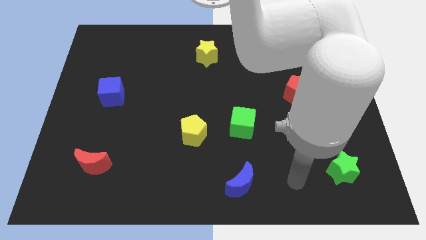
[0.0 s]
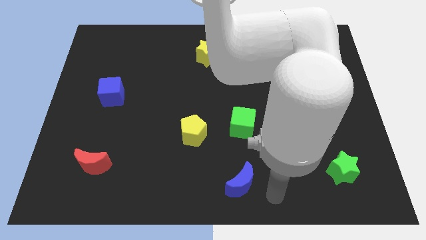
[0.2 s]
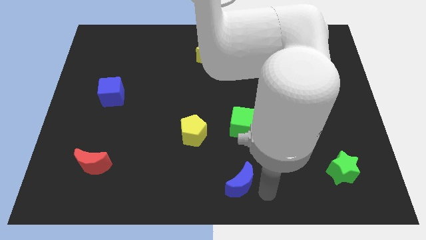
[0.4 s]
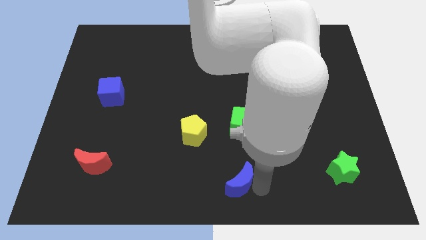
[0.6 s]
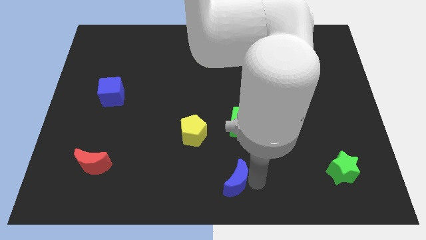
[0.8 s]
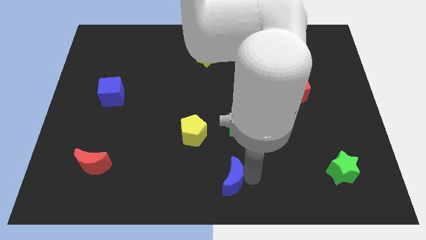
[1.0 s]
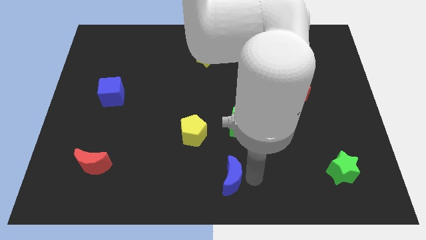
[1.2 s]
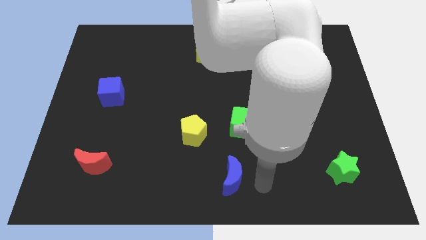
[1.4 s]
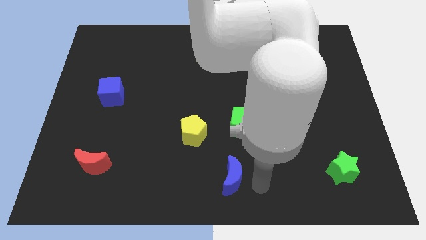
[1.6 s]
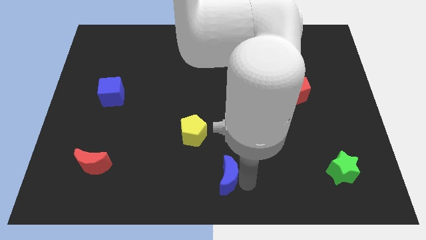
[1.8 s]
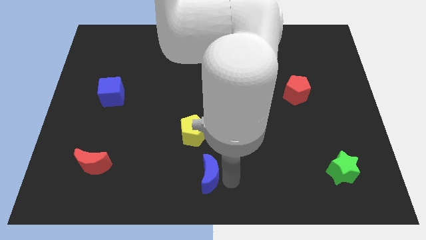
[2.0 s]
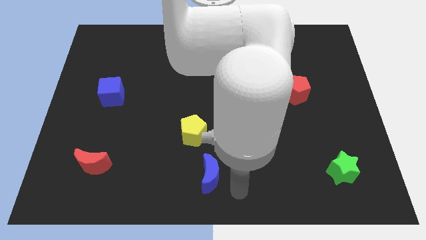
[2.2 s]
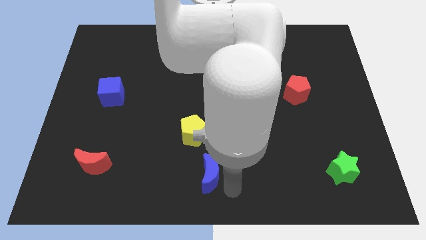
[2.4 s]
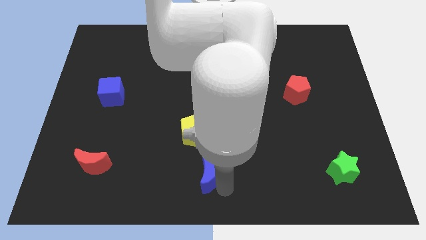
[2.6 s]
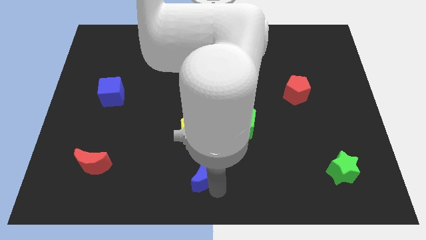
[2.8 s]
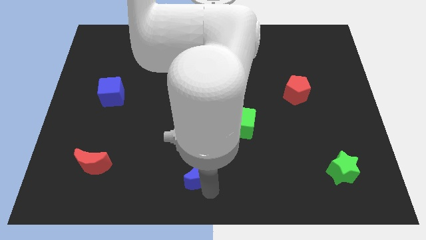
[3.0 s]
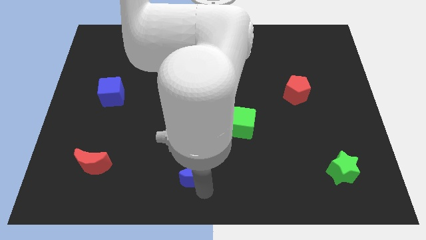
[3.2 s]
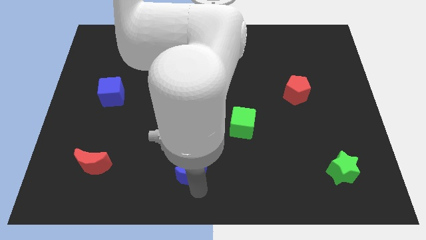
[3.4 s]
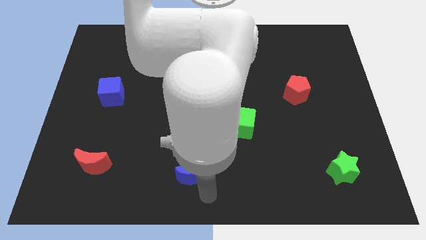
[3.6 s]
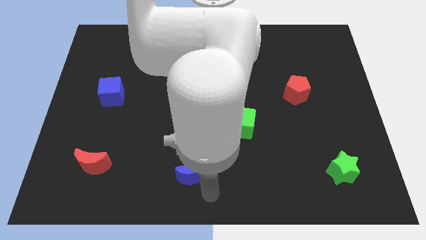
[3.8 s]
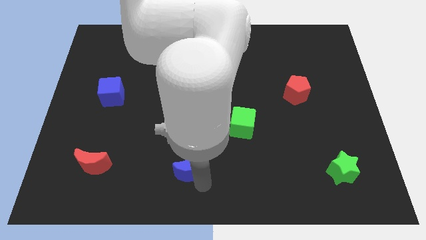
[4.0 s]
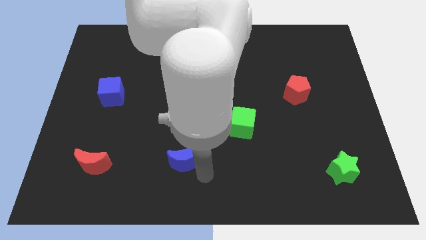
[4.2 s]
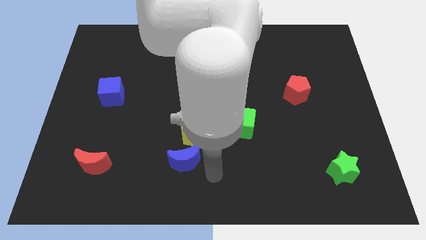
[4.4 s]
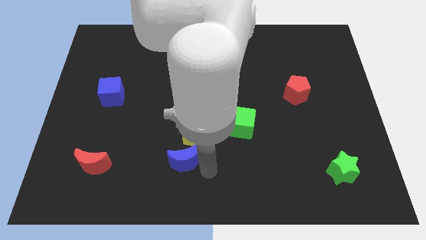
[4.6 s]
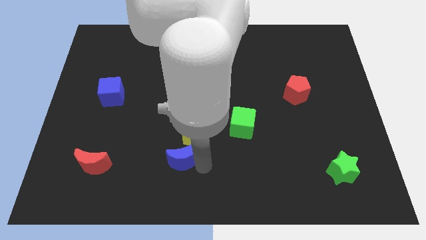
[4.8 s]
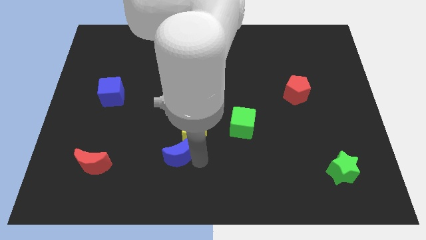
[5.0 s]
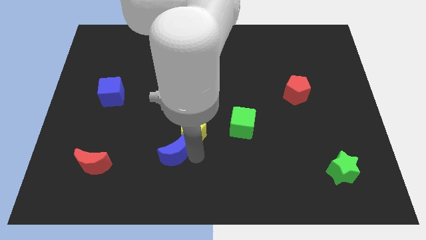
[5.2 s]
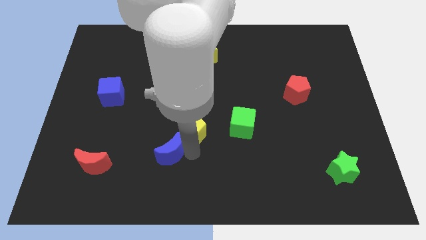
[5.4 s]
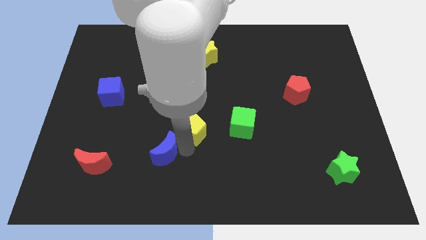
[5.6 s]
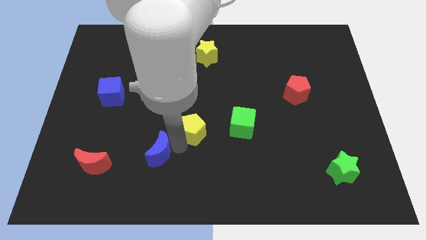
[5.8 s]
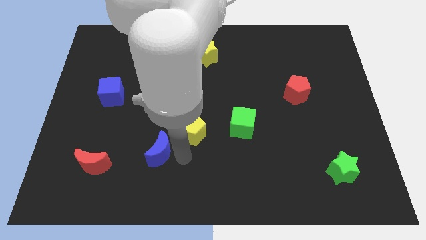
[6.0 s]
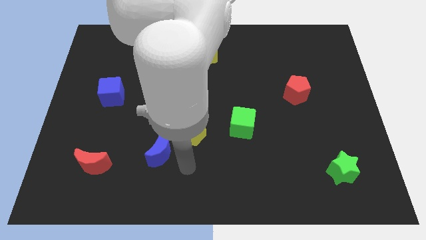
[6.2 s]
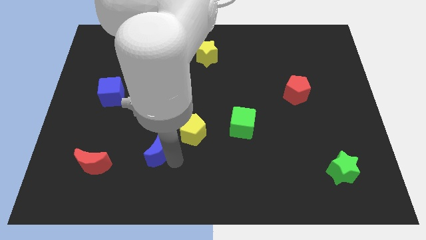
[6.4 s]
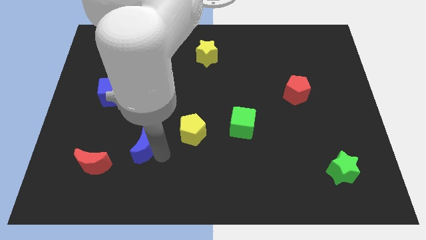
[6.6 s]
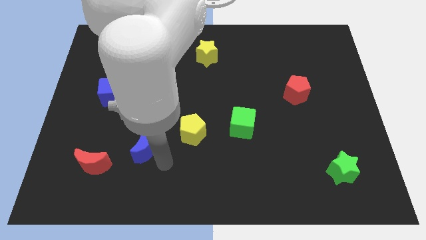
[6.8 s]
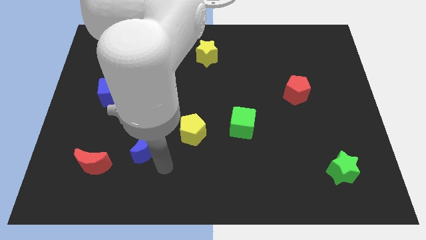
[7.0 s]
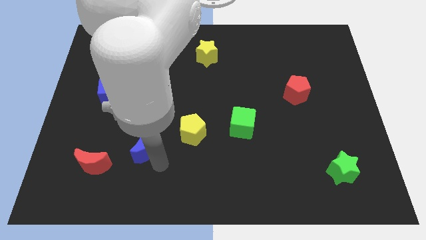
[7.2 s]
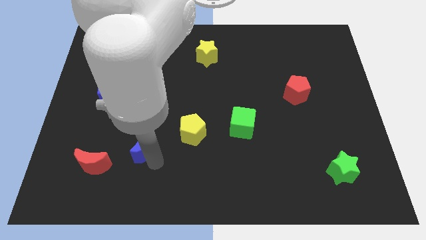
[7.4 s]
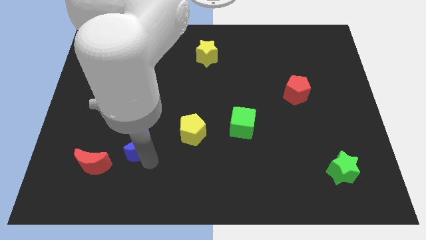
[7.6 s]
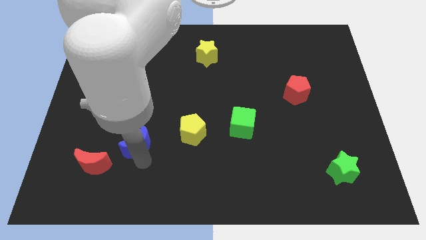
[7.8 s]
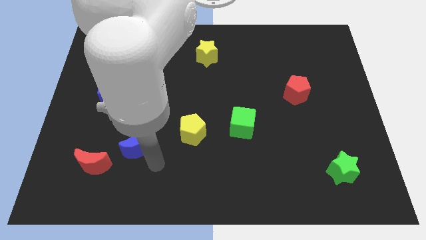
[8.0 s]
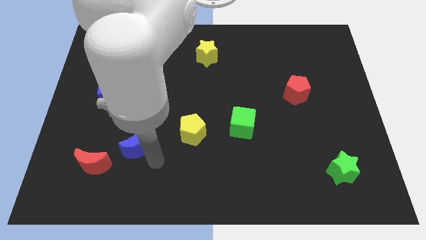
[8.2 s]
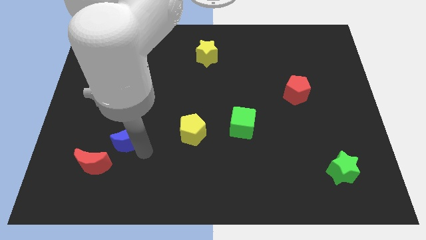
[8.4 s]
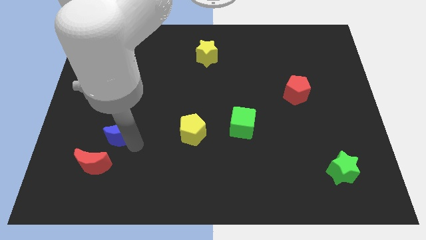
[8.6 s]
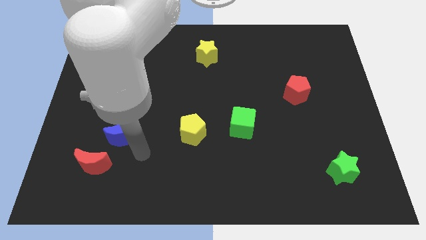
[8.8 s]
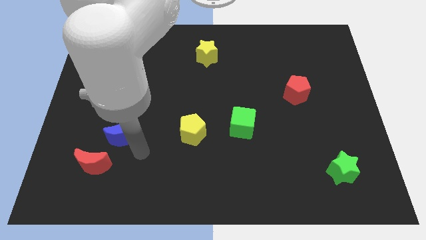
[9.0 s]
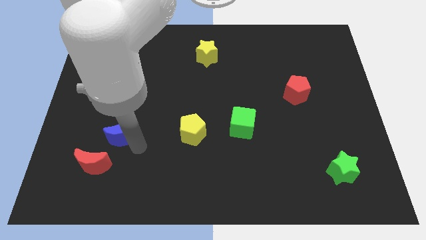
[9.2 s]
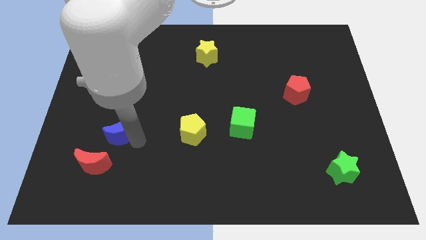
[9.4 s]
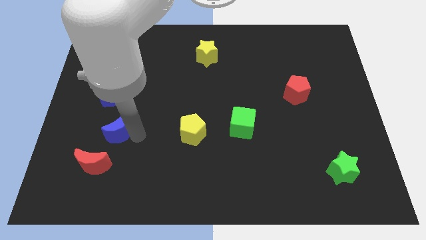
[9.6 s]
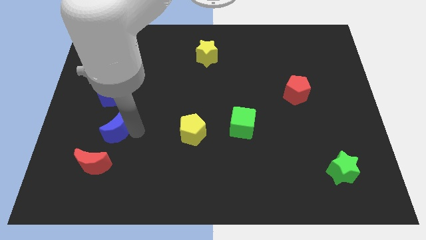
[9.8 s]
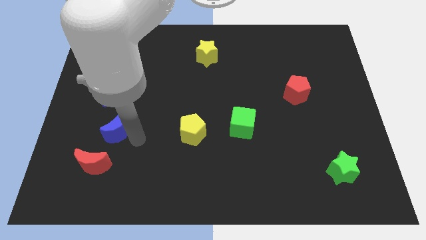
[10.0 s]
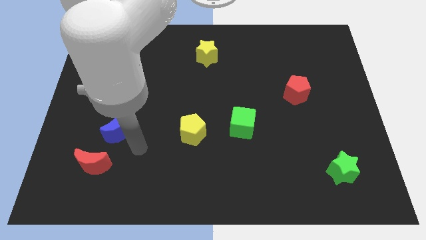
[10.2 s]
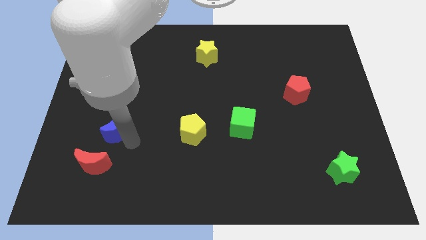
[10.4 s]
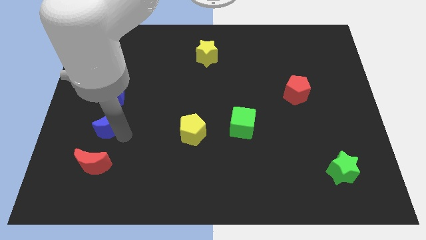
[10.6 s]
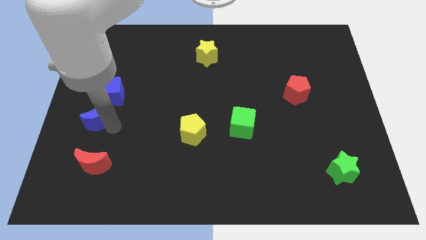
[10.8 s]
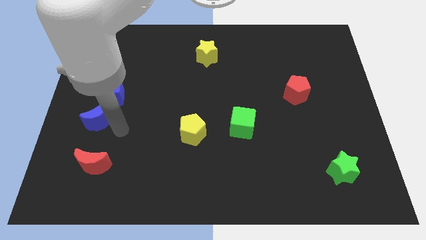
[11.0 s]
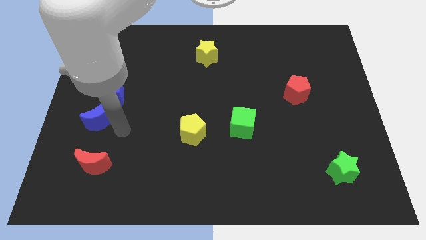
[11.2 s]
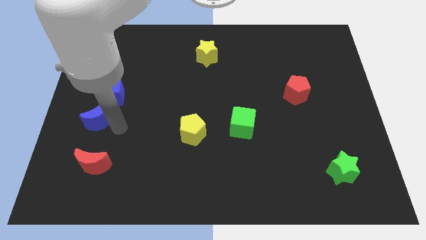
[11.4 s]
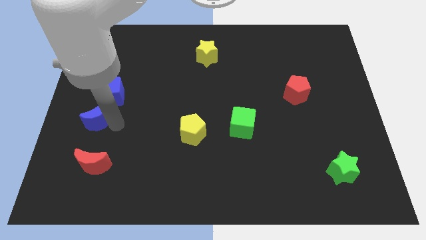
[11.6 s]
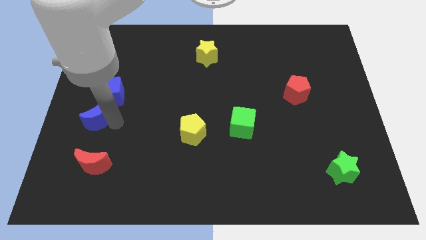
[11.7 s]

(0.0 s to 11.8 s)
put the blue moon to the center left
